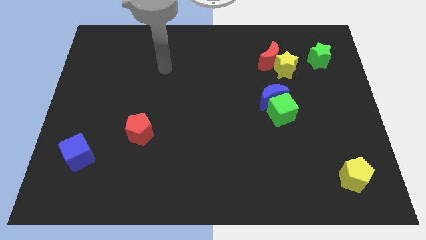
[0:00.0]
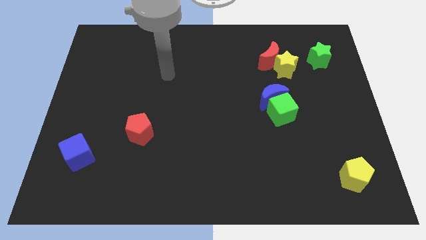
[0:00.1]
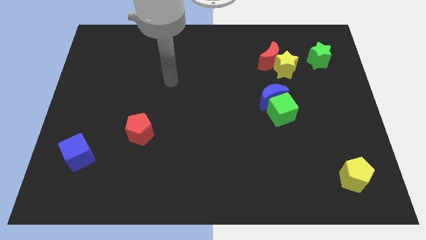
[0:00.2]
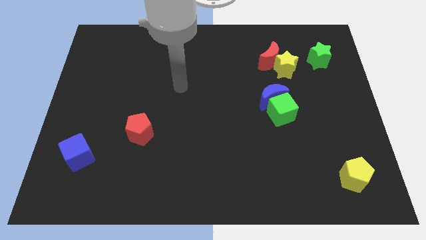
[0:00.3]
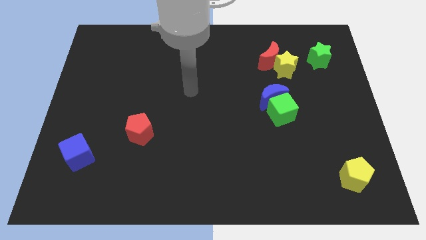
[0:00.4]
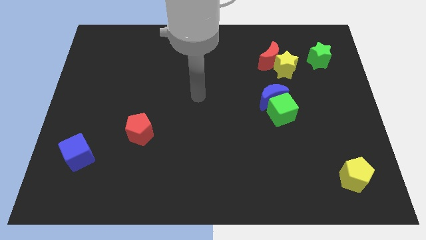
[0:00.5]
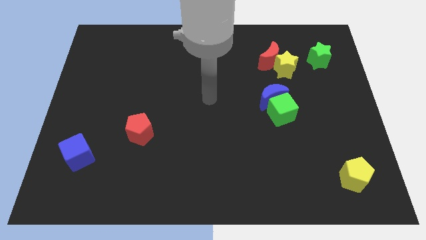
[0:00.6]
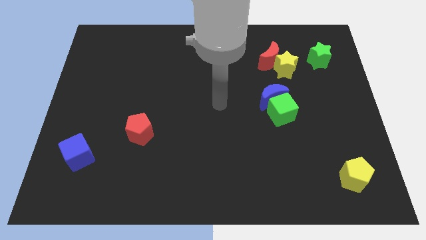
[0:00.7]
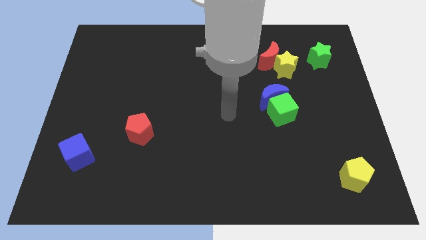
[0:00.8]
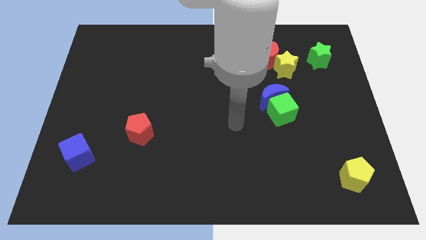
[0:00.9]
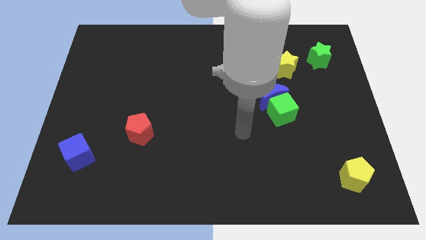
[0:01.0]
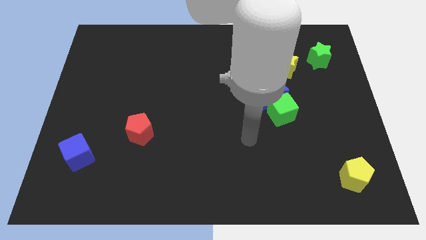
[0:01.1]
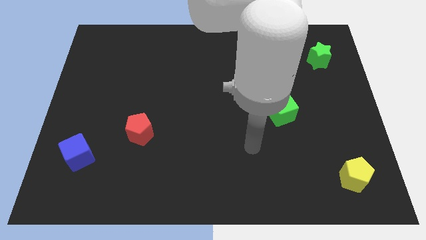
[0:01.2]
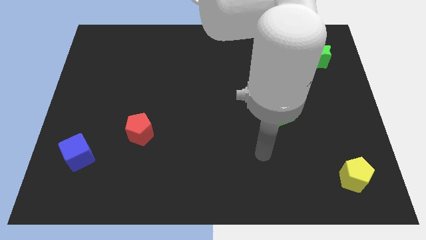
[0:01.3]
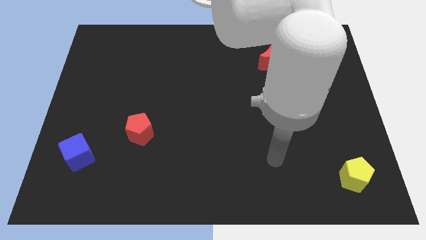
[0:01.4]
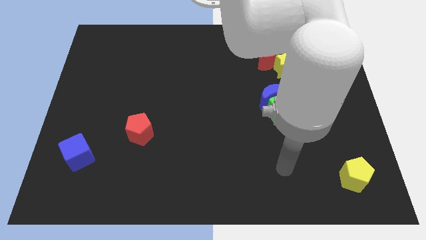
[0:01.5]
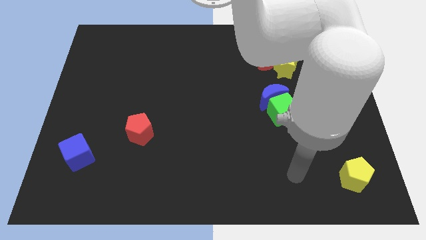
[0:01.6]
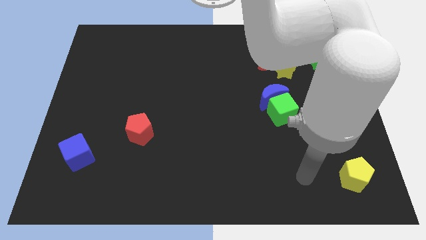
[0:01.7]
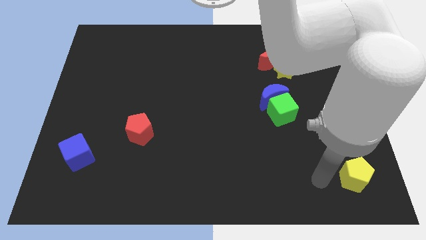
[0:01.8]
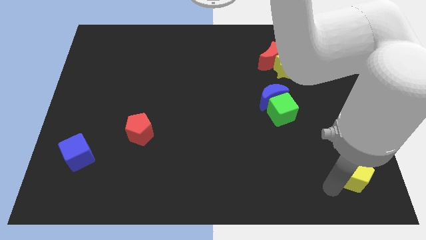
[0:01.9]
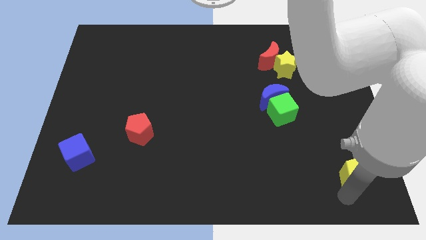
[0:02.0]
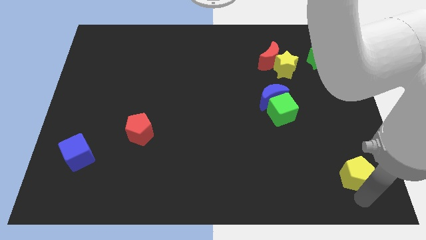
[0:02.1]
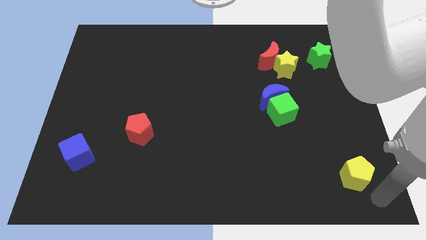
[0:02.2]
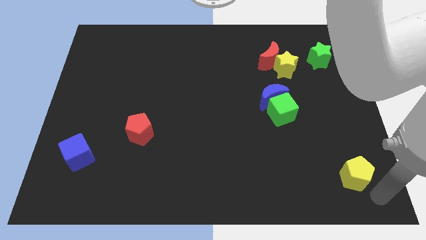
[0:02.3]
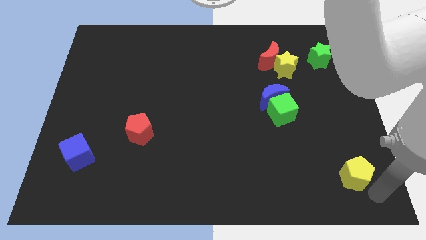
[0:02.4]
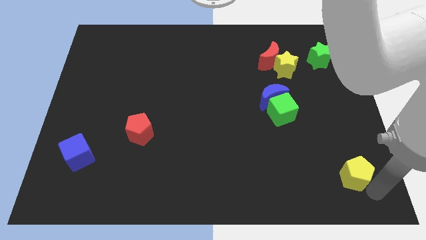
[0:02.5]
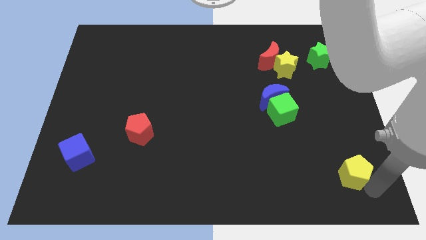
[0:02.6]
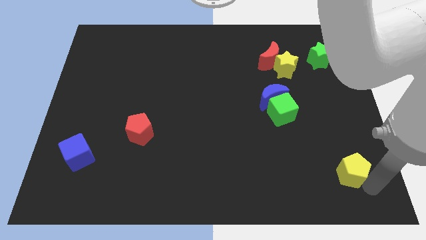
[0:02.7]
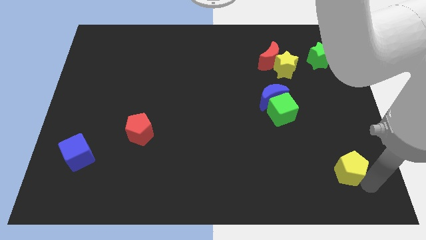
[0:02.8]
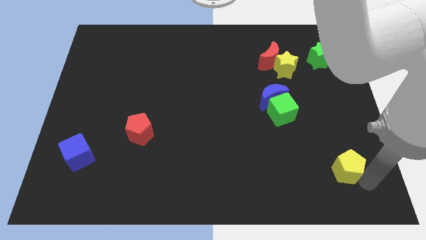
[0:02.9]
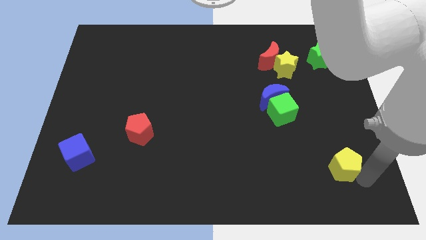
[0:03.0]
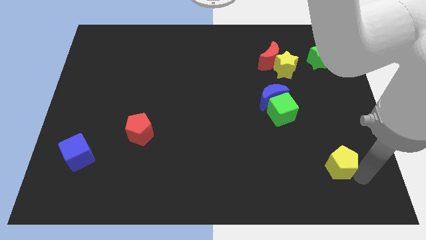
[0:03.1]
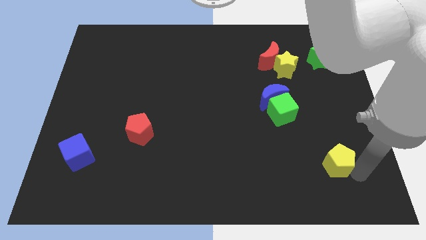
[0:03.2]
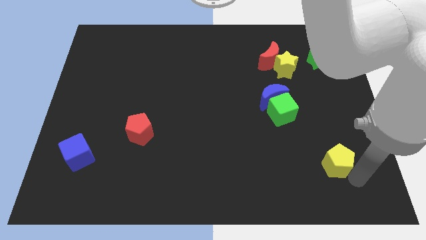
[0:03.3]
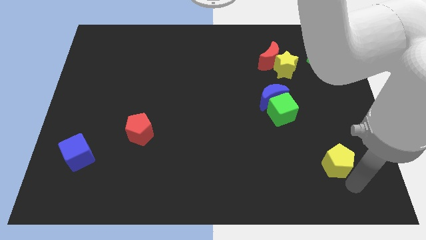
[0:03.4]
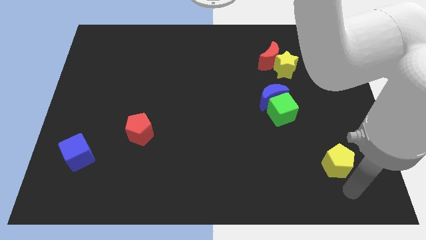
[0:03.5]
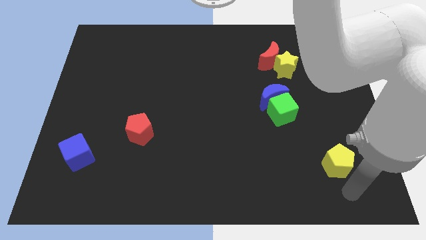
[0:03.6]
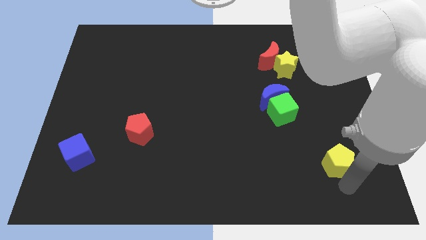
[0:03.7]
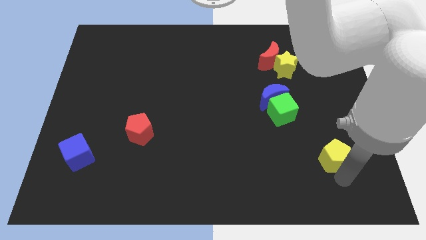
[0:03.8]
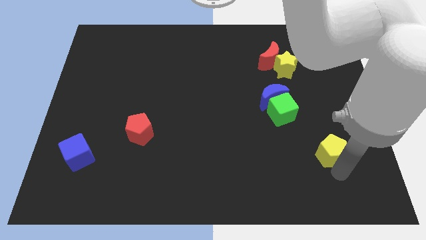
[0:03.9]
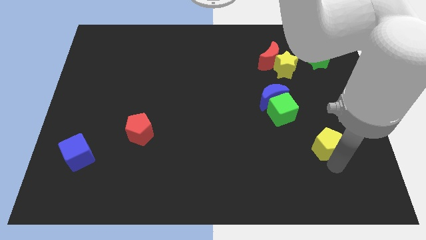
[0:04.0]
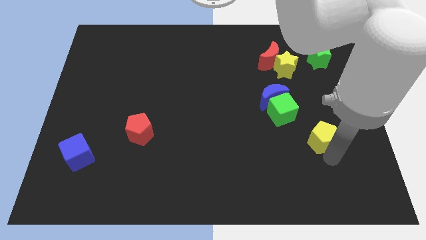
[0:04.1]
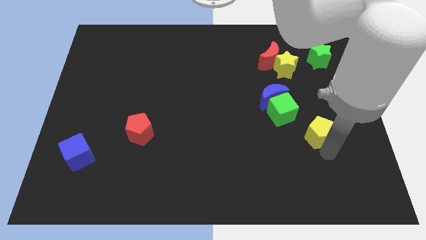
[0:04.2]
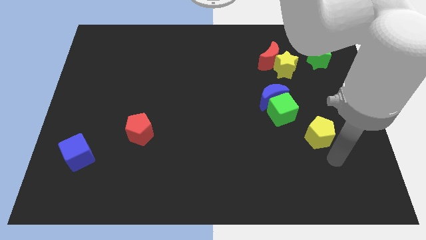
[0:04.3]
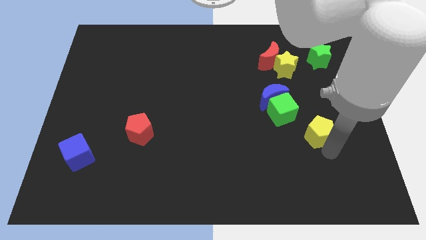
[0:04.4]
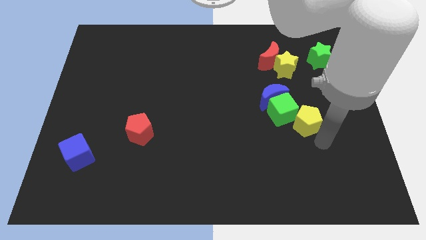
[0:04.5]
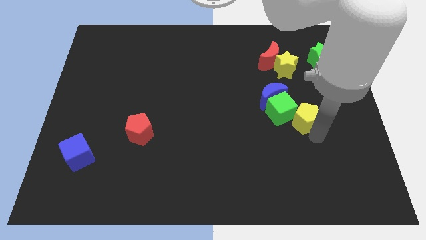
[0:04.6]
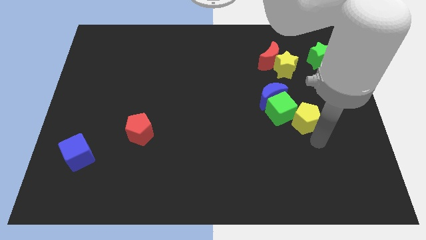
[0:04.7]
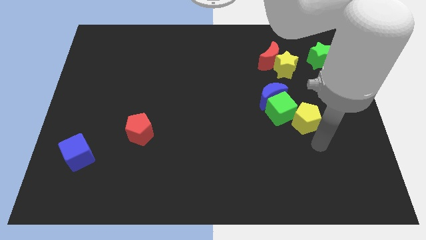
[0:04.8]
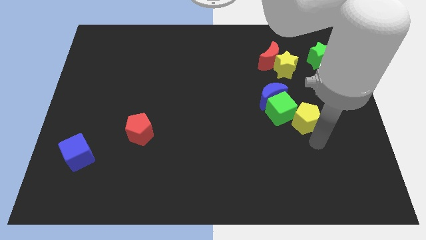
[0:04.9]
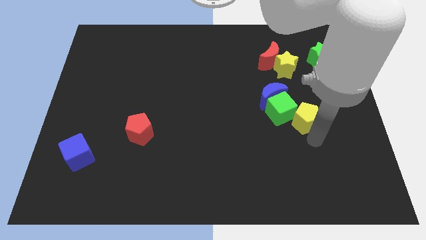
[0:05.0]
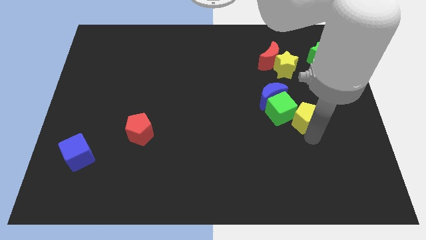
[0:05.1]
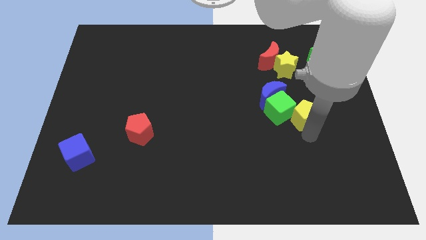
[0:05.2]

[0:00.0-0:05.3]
move the yellow pentagon to the bottom of the yellow star

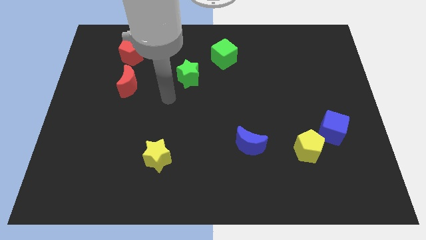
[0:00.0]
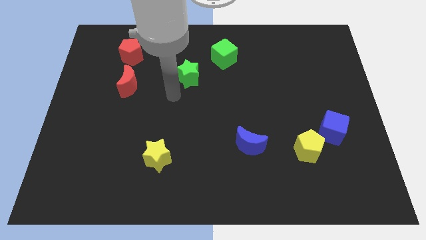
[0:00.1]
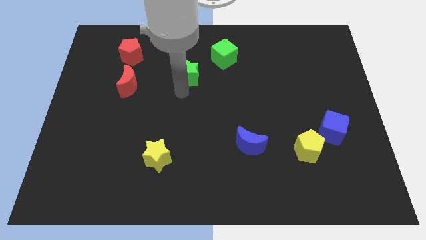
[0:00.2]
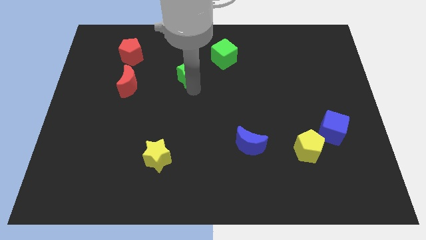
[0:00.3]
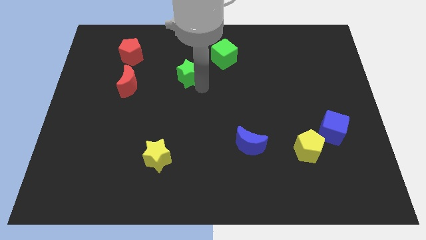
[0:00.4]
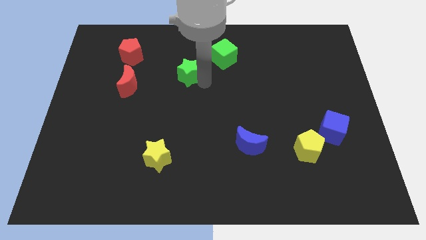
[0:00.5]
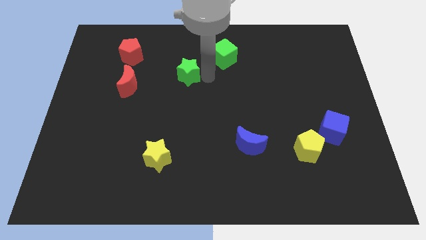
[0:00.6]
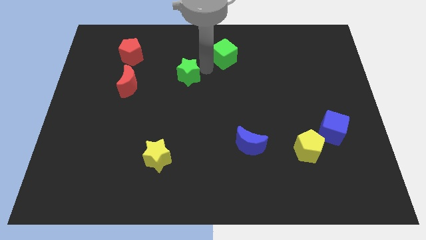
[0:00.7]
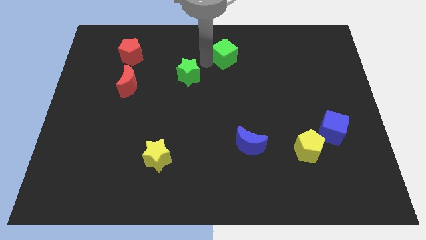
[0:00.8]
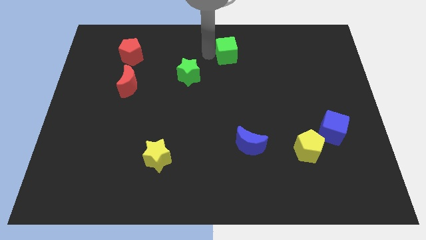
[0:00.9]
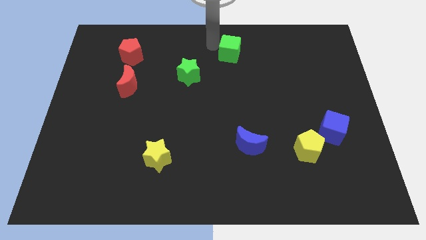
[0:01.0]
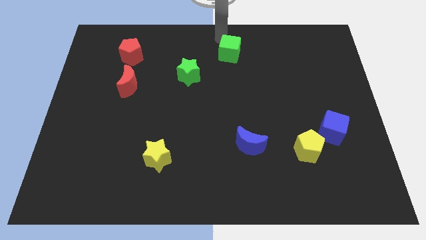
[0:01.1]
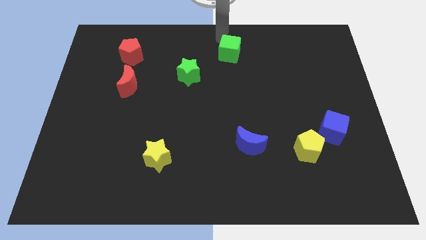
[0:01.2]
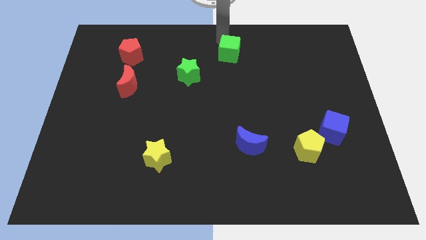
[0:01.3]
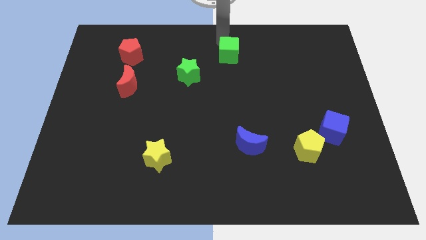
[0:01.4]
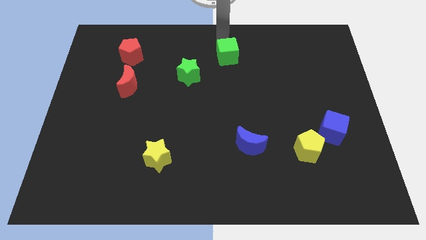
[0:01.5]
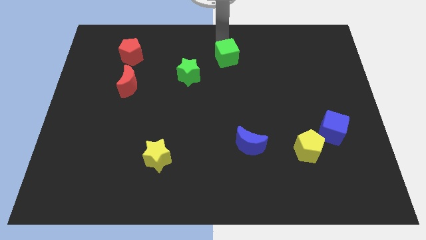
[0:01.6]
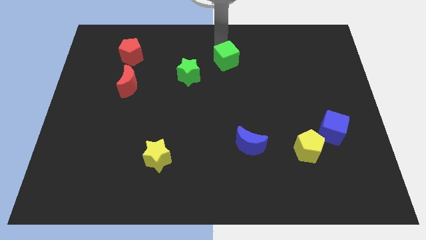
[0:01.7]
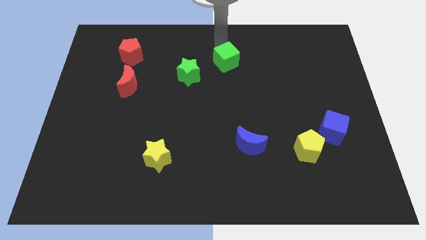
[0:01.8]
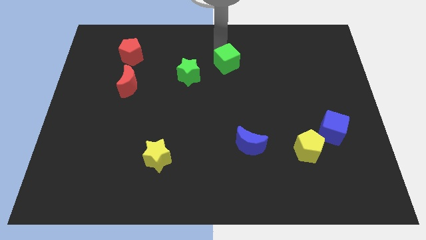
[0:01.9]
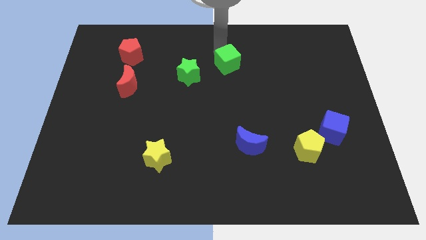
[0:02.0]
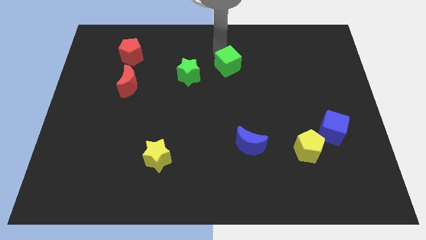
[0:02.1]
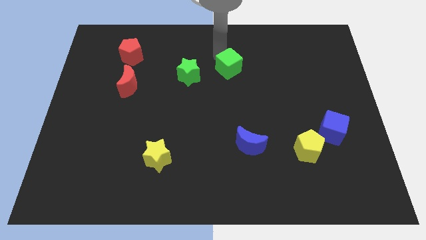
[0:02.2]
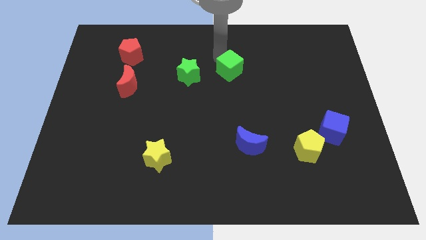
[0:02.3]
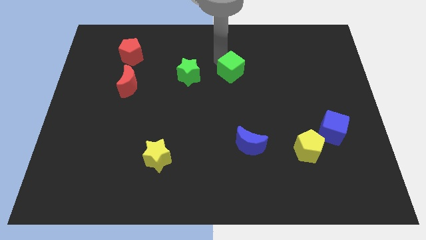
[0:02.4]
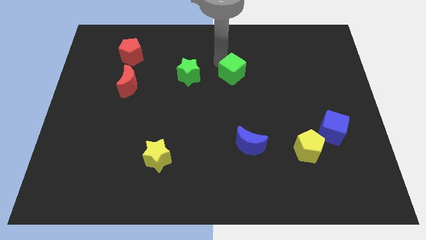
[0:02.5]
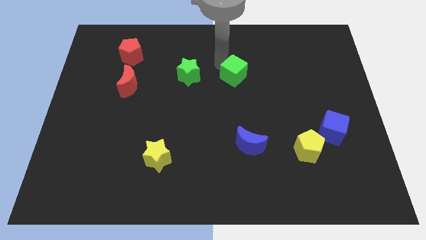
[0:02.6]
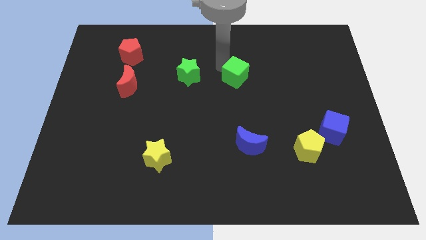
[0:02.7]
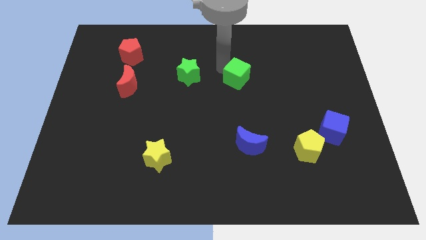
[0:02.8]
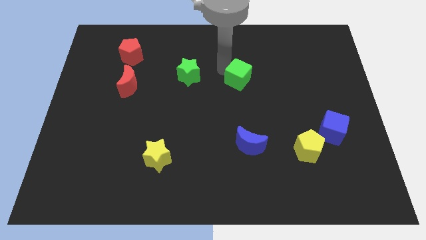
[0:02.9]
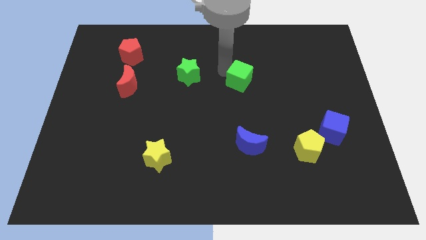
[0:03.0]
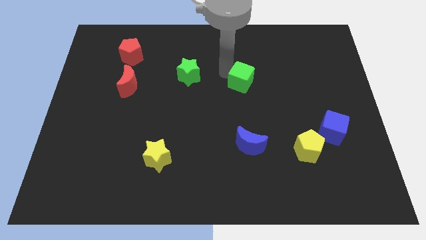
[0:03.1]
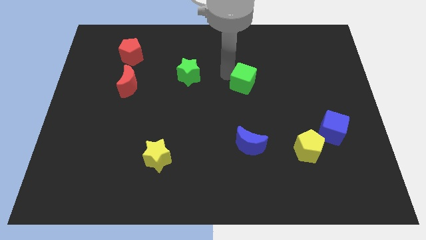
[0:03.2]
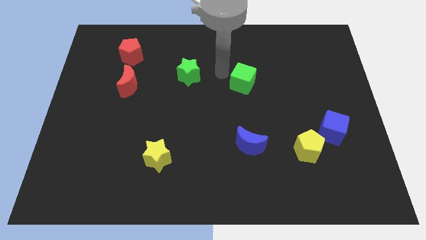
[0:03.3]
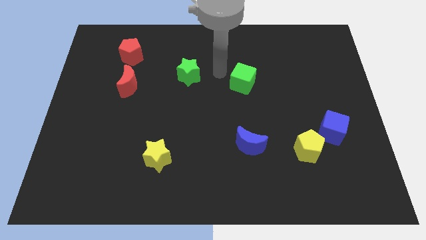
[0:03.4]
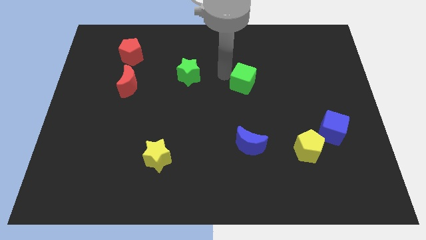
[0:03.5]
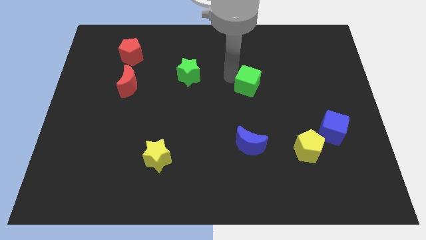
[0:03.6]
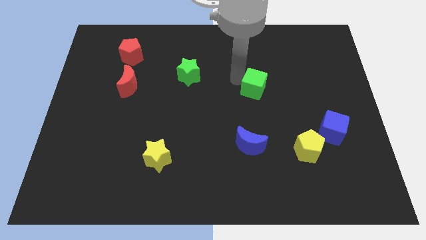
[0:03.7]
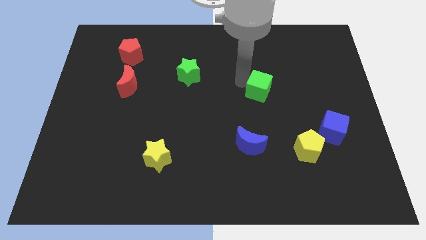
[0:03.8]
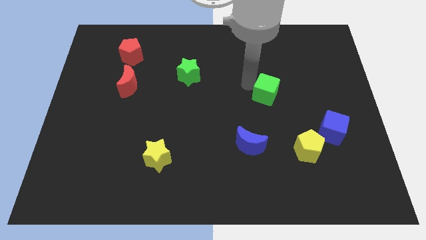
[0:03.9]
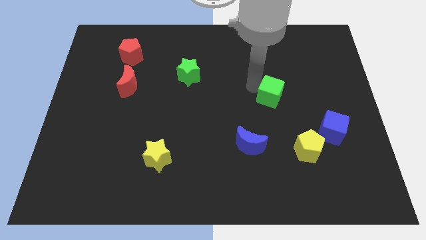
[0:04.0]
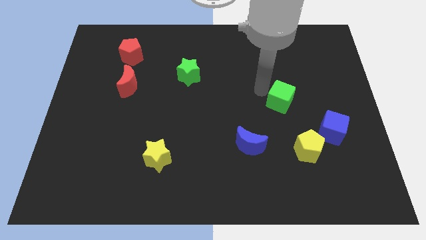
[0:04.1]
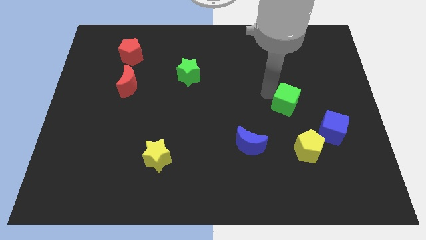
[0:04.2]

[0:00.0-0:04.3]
put the green cube to the top left side of the blue cube
